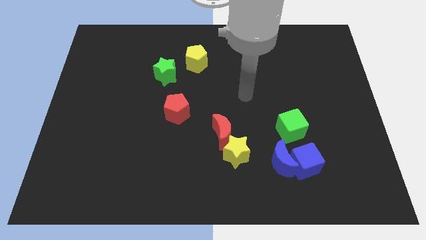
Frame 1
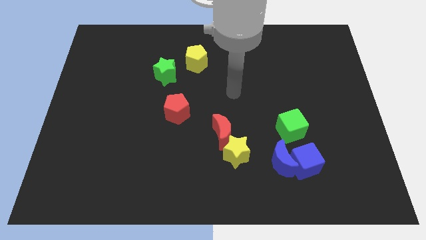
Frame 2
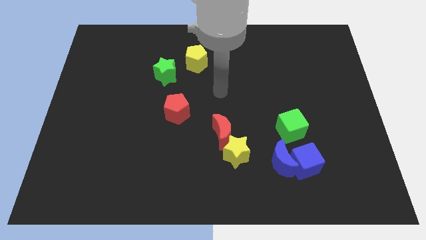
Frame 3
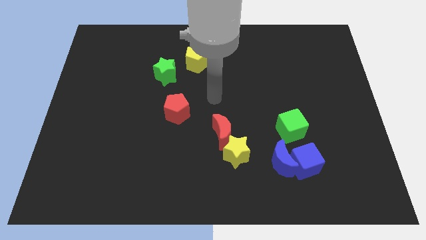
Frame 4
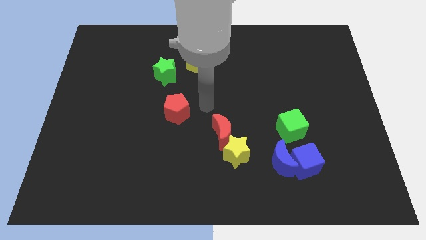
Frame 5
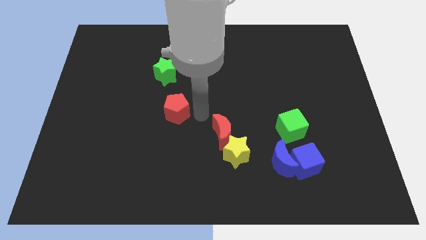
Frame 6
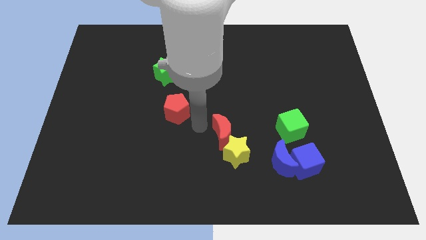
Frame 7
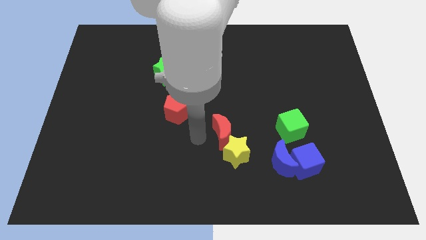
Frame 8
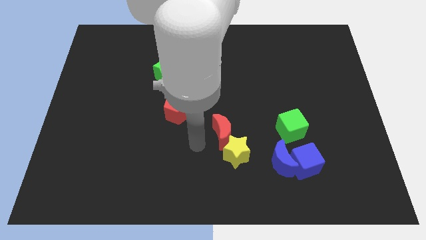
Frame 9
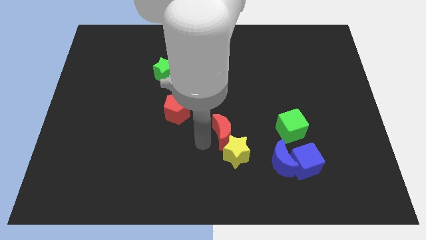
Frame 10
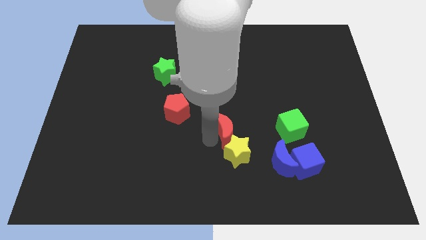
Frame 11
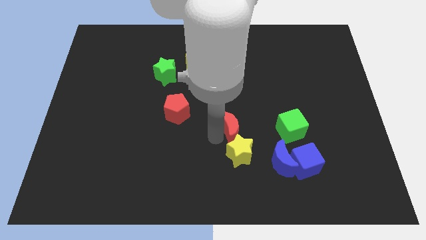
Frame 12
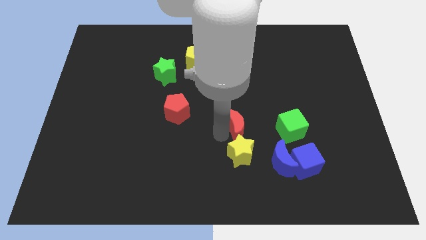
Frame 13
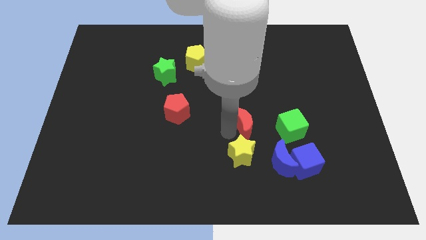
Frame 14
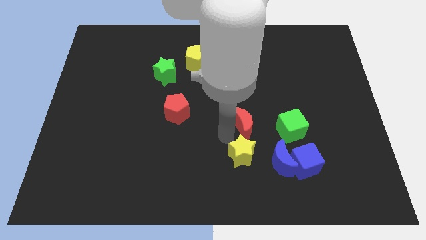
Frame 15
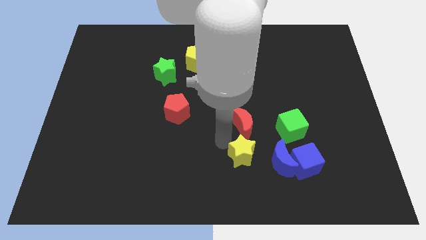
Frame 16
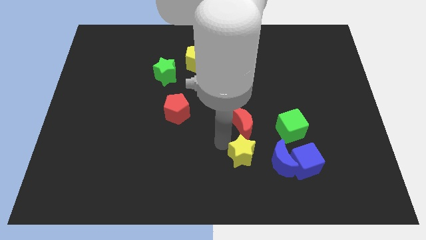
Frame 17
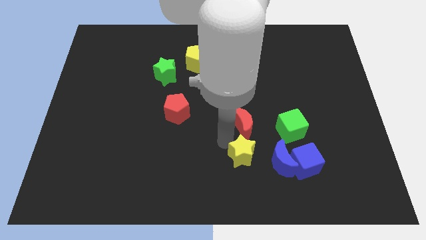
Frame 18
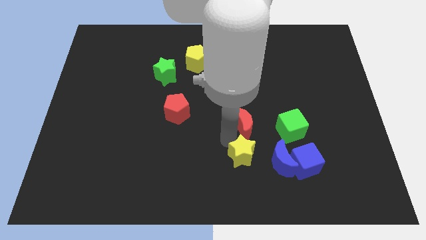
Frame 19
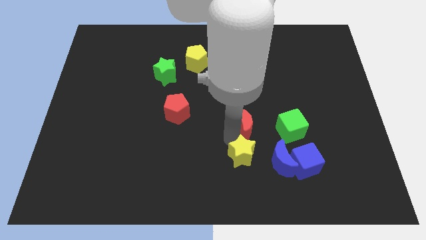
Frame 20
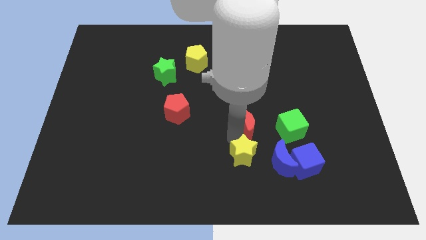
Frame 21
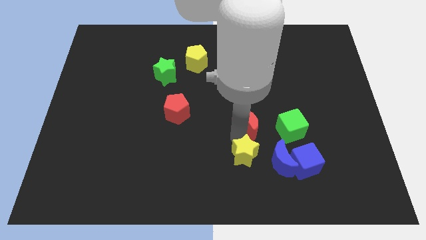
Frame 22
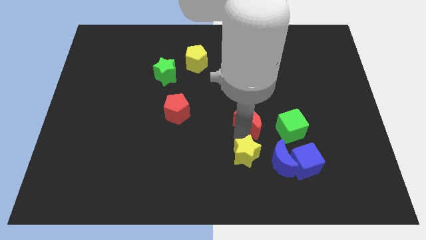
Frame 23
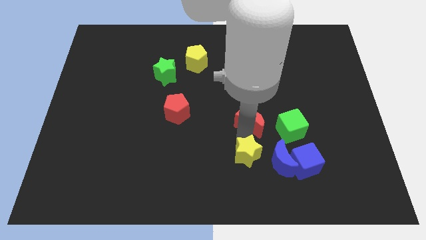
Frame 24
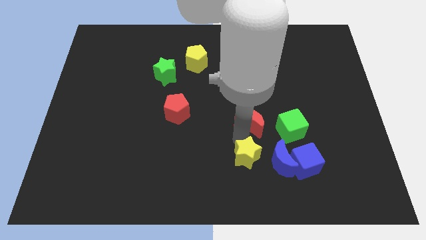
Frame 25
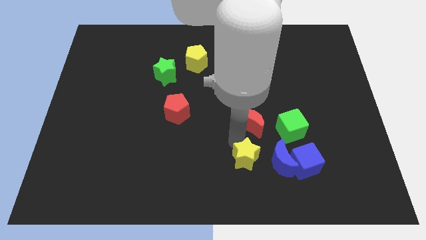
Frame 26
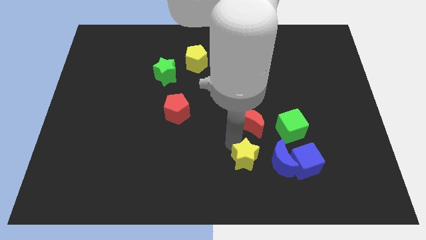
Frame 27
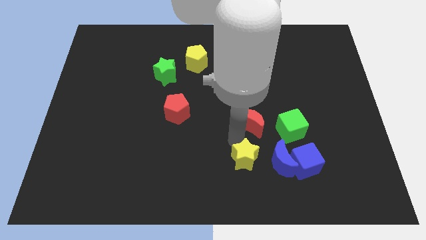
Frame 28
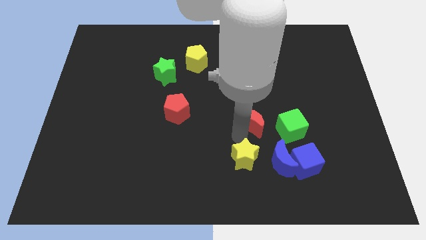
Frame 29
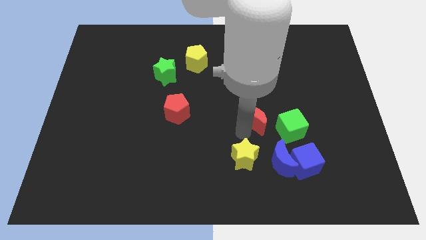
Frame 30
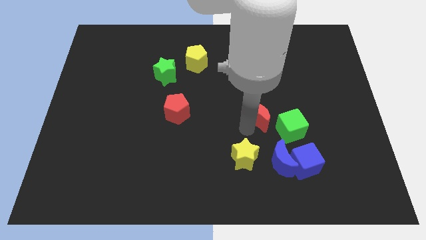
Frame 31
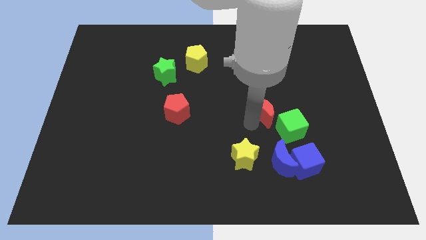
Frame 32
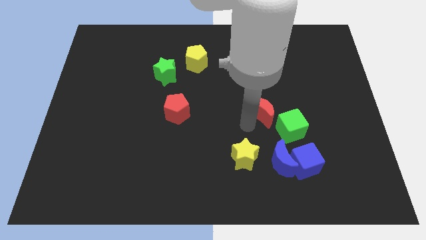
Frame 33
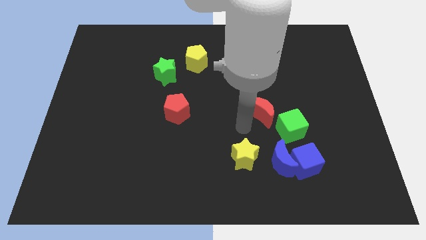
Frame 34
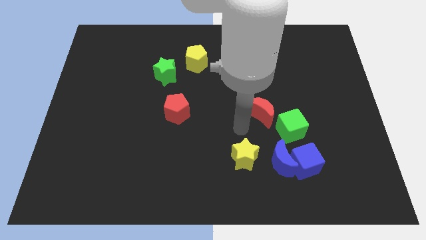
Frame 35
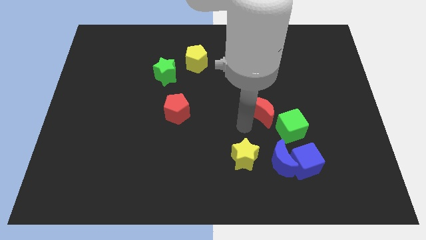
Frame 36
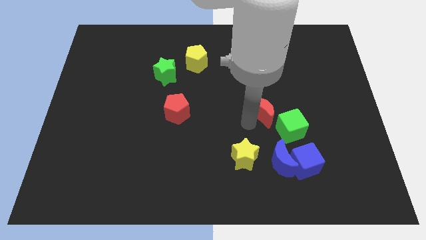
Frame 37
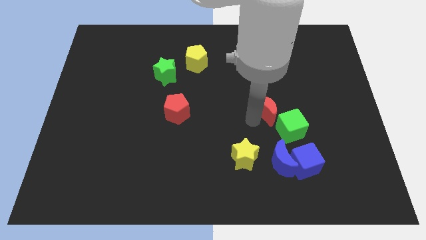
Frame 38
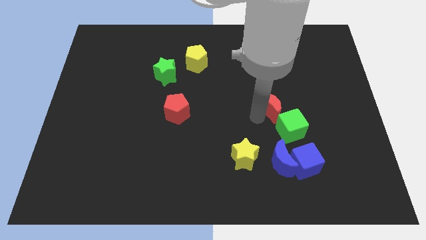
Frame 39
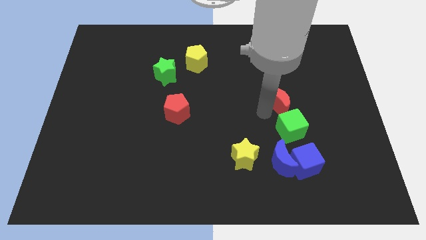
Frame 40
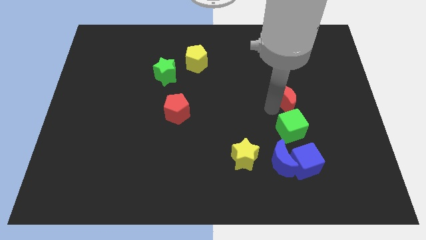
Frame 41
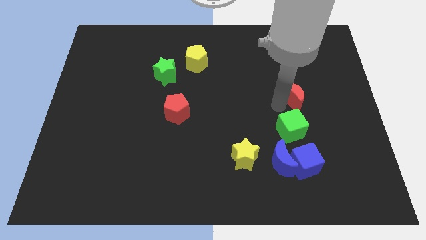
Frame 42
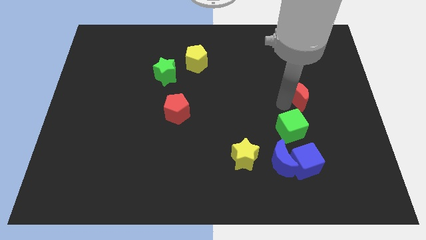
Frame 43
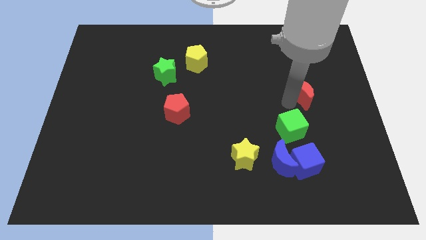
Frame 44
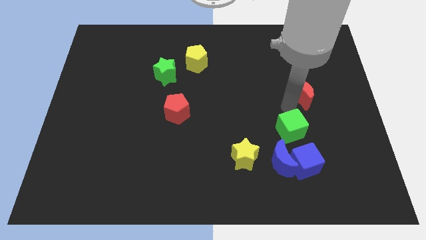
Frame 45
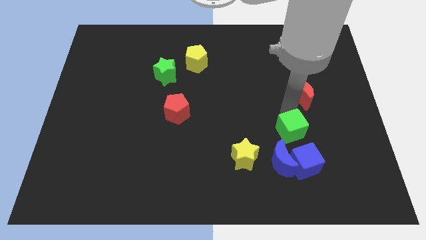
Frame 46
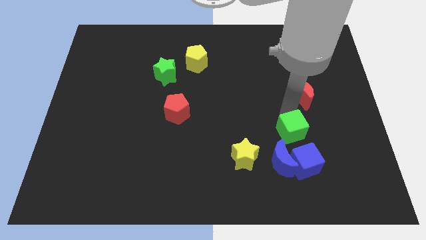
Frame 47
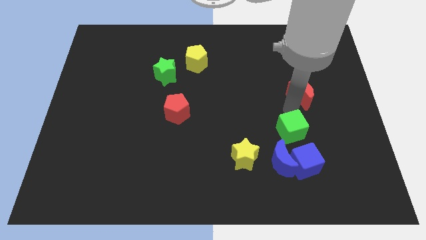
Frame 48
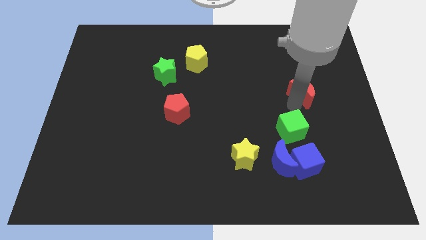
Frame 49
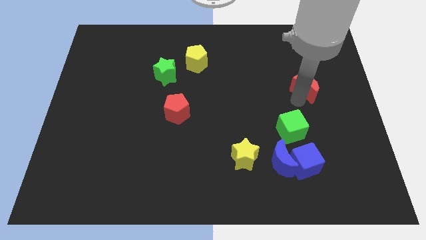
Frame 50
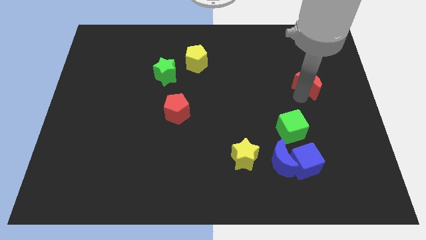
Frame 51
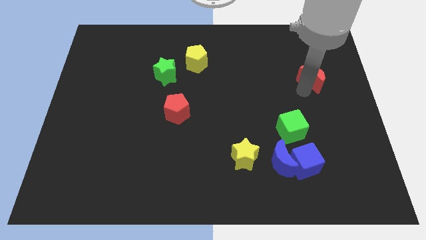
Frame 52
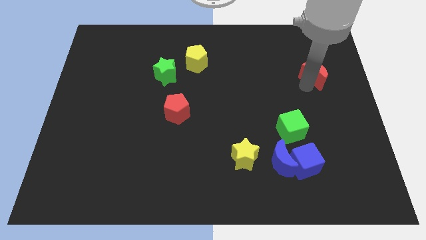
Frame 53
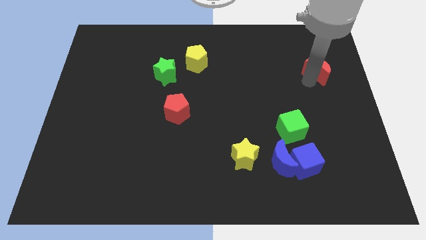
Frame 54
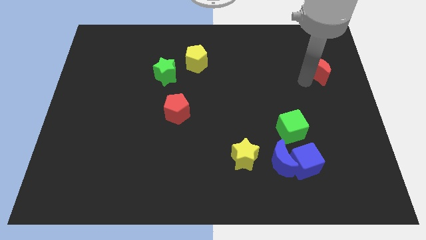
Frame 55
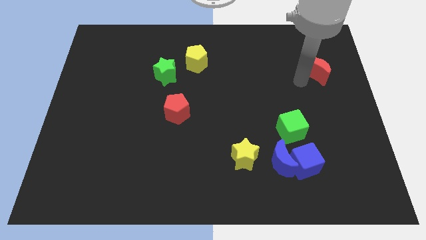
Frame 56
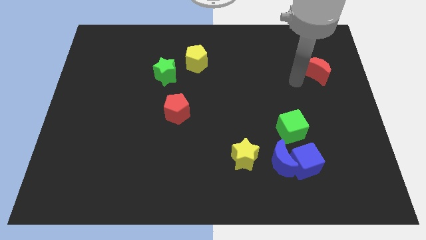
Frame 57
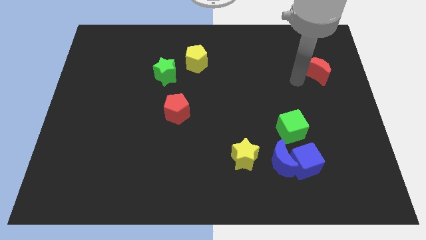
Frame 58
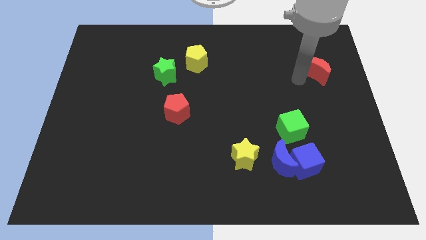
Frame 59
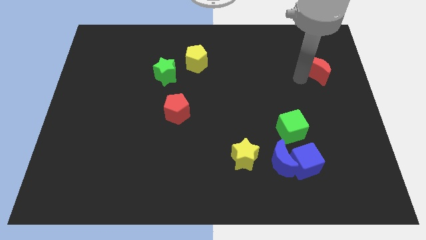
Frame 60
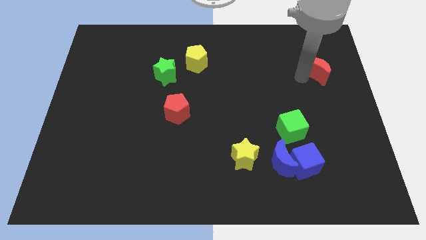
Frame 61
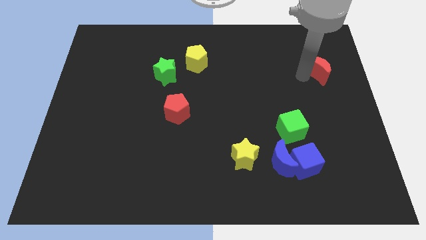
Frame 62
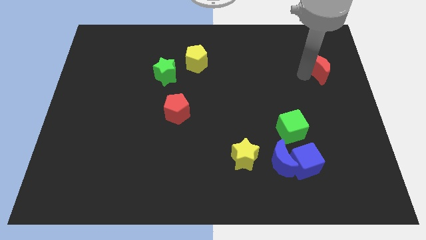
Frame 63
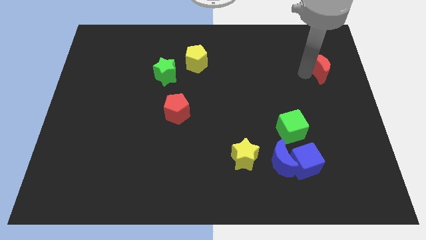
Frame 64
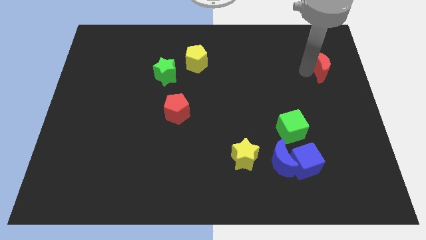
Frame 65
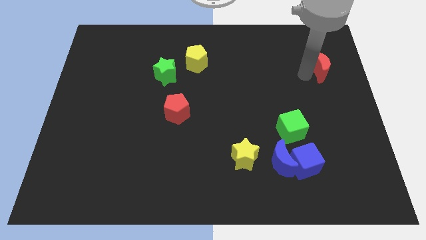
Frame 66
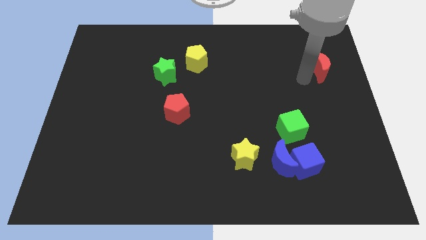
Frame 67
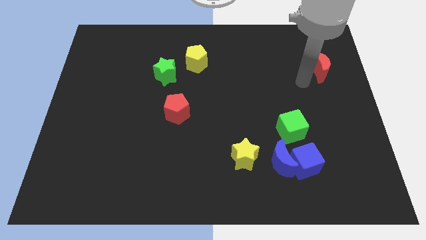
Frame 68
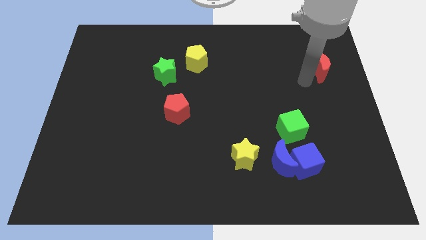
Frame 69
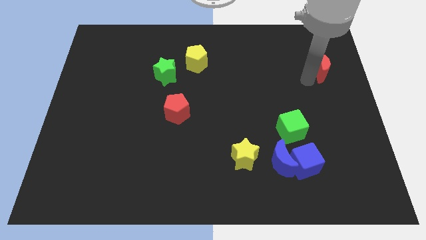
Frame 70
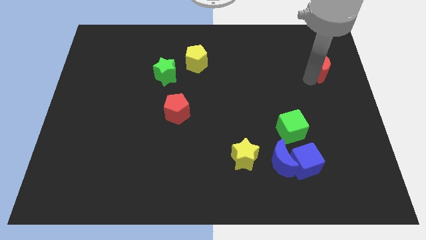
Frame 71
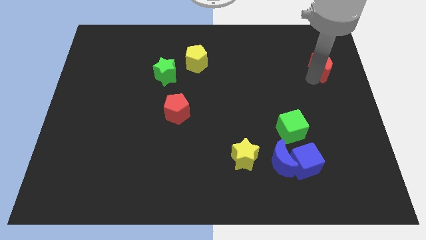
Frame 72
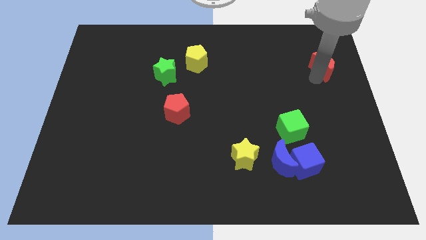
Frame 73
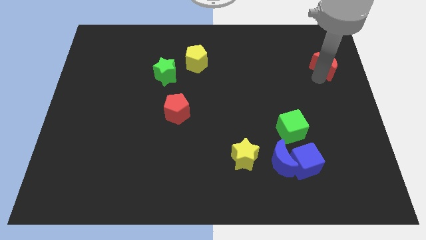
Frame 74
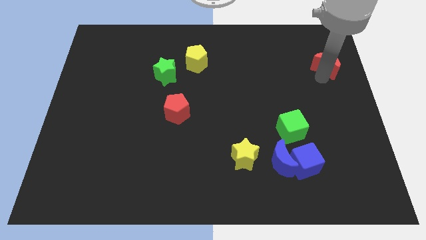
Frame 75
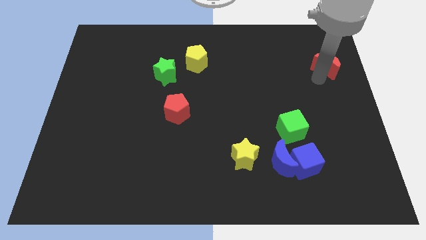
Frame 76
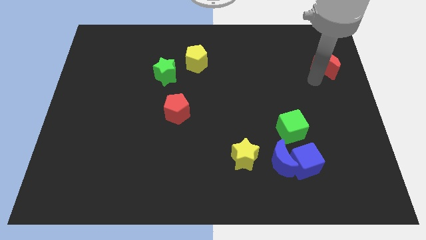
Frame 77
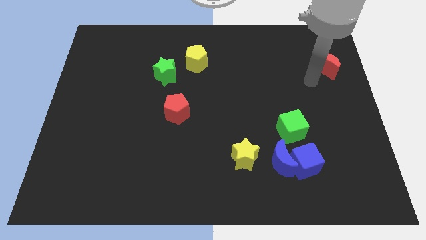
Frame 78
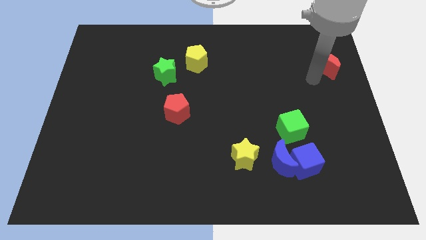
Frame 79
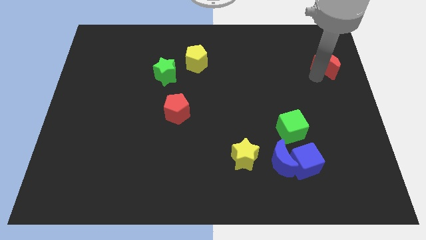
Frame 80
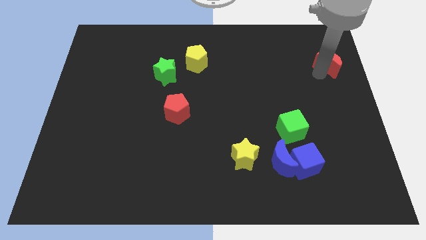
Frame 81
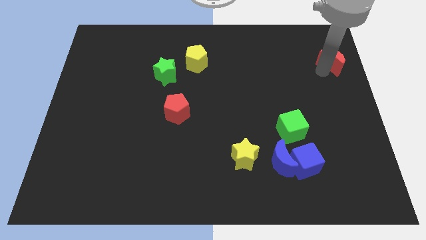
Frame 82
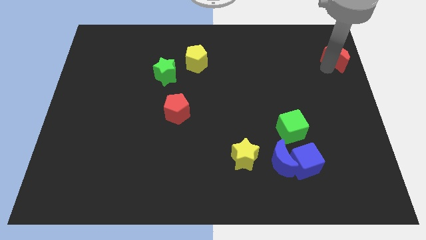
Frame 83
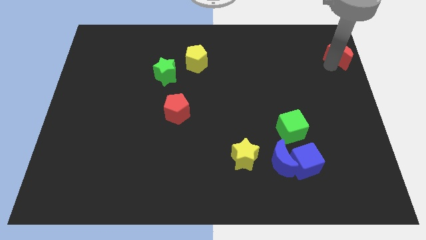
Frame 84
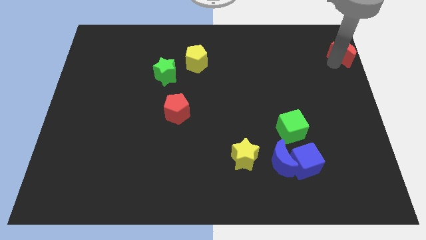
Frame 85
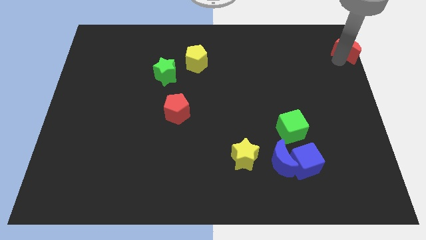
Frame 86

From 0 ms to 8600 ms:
push the red moon to the top right
